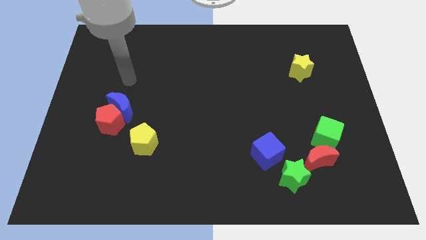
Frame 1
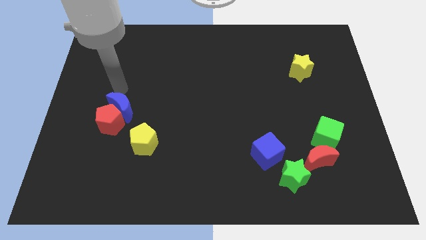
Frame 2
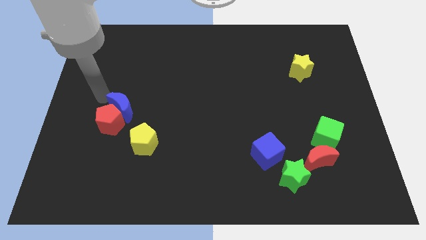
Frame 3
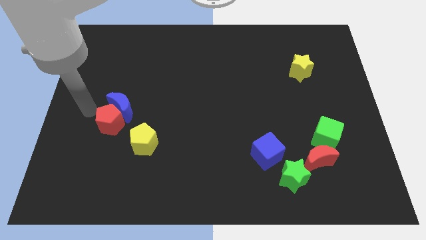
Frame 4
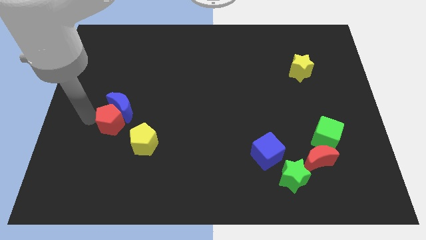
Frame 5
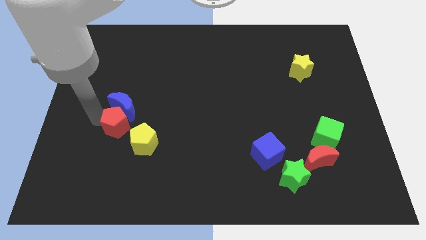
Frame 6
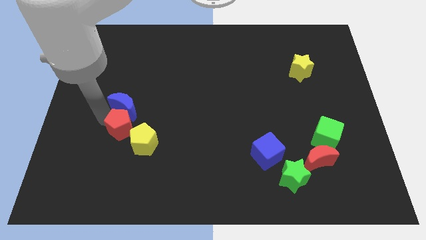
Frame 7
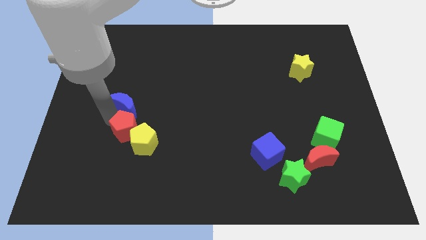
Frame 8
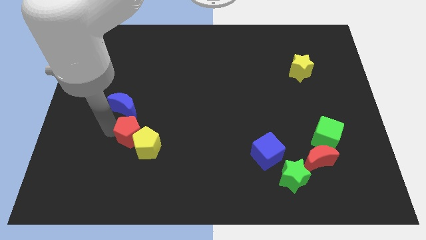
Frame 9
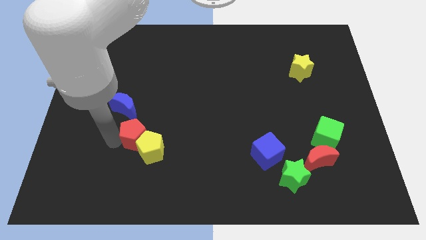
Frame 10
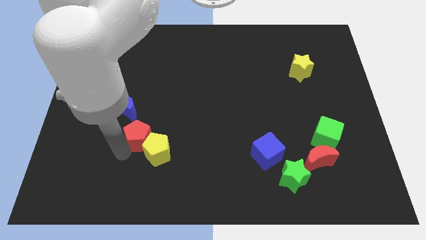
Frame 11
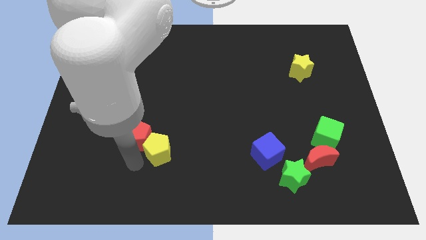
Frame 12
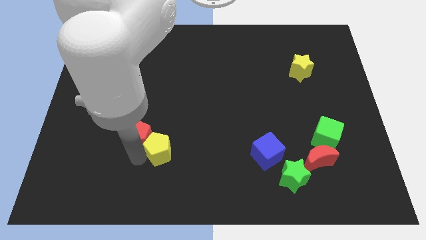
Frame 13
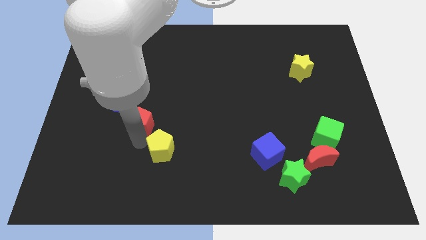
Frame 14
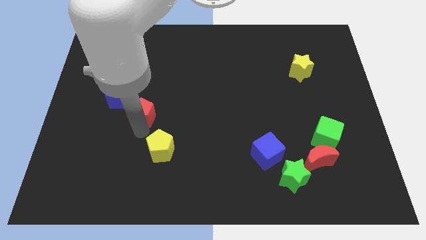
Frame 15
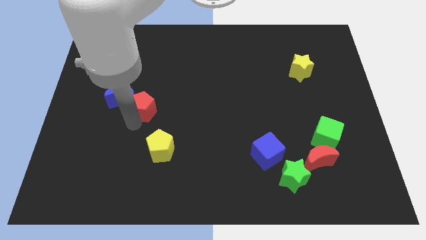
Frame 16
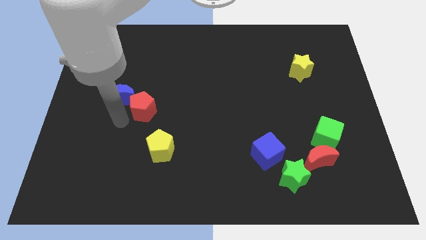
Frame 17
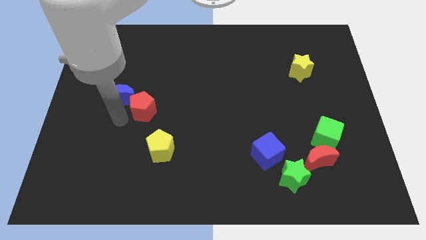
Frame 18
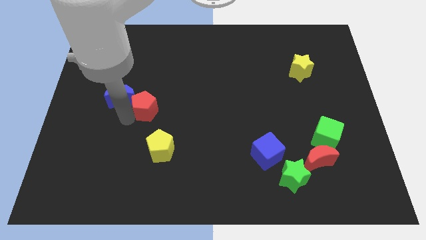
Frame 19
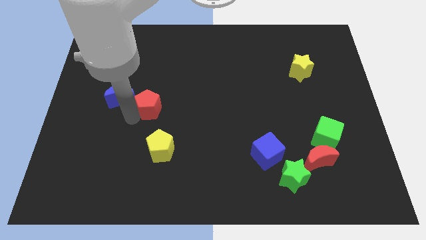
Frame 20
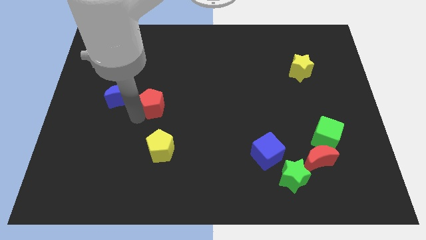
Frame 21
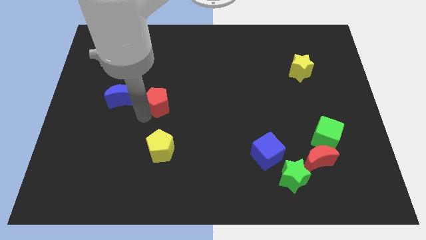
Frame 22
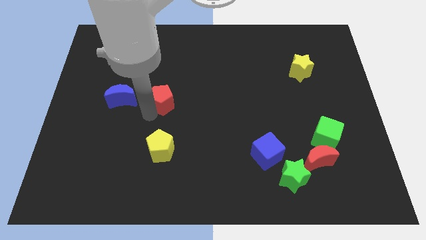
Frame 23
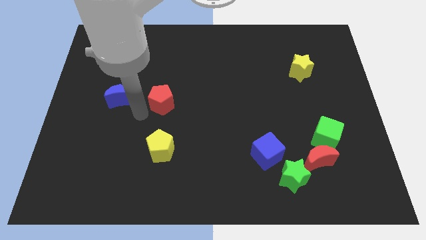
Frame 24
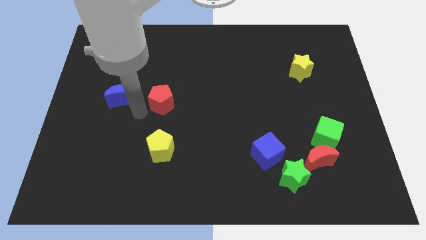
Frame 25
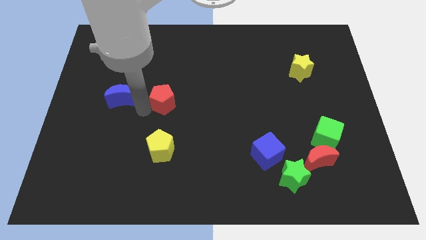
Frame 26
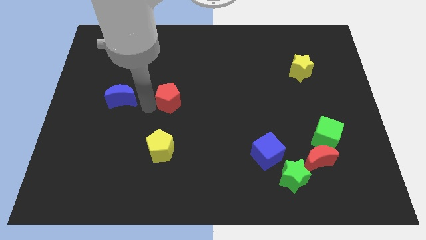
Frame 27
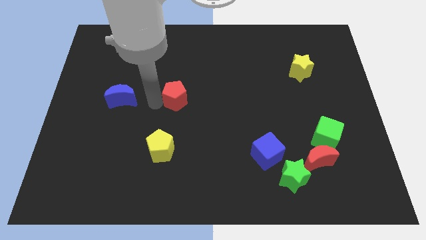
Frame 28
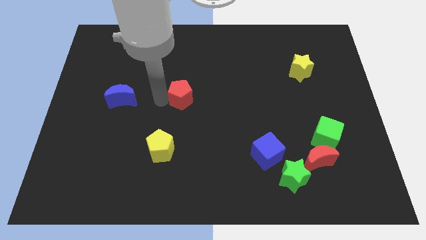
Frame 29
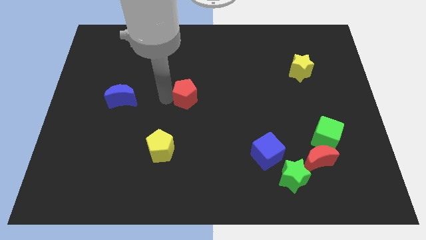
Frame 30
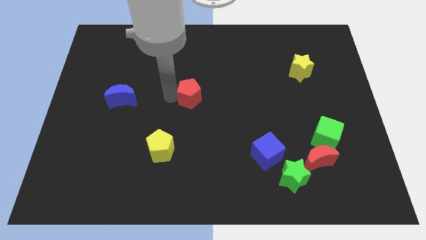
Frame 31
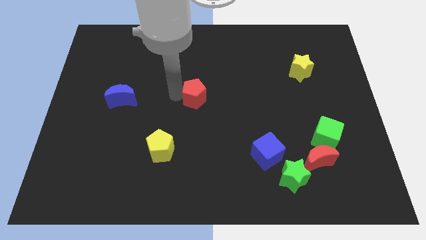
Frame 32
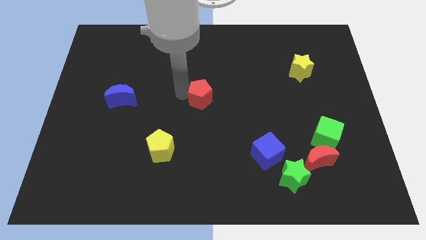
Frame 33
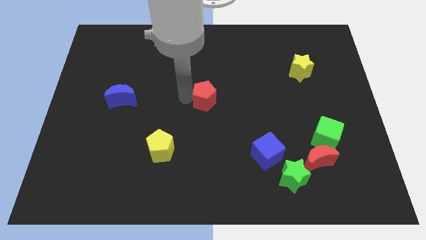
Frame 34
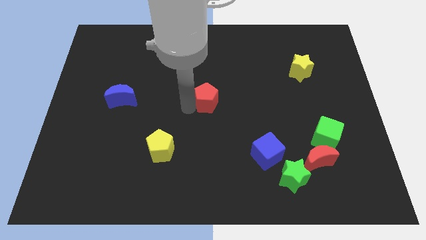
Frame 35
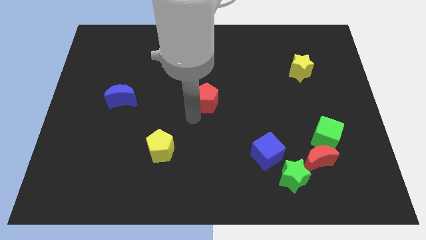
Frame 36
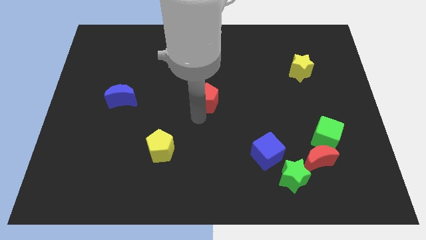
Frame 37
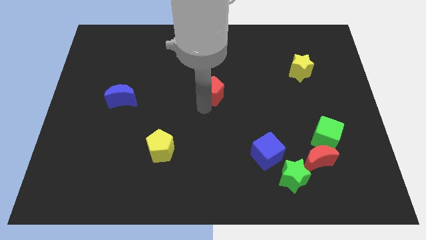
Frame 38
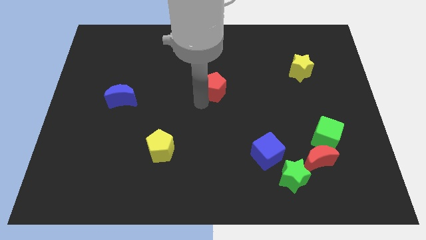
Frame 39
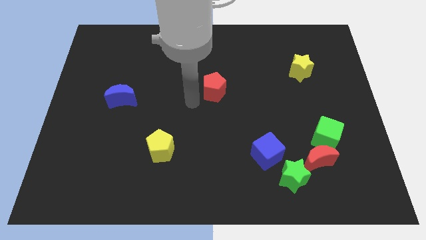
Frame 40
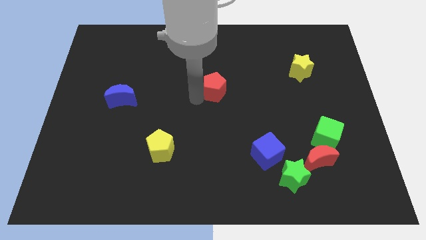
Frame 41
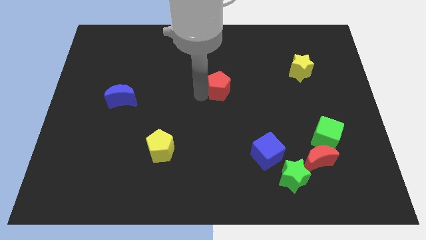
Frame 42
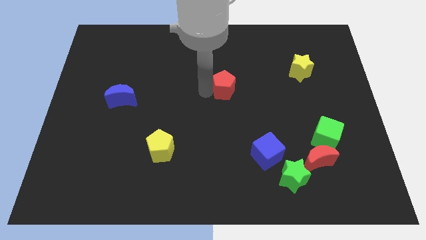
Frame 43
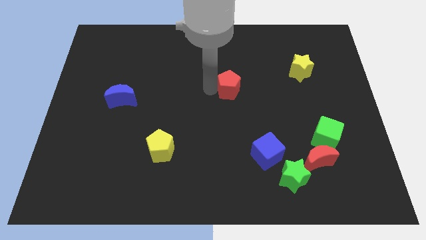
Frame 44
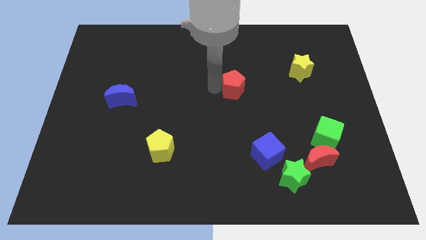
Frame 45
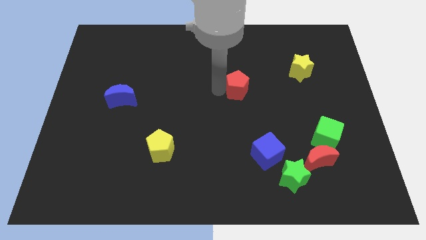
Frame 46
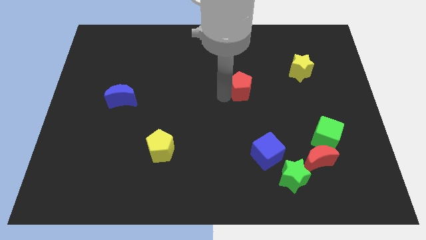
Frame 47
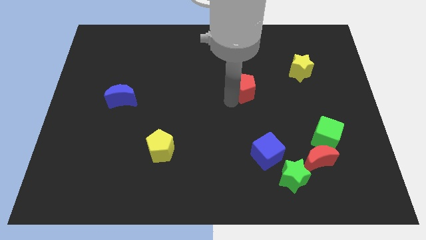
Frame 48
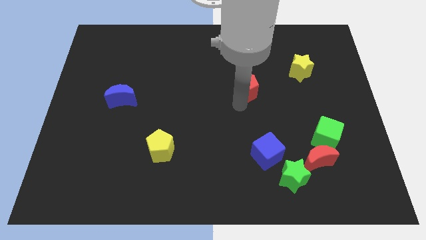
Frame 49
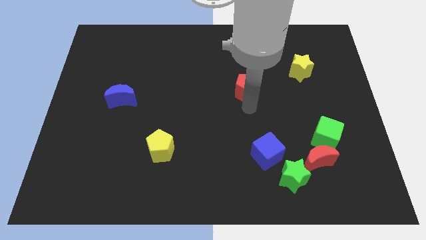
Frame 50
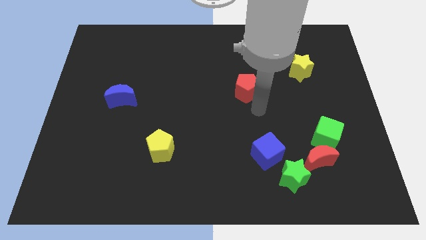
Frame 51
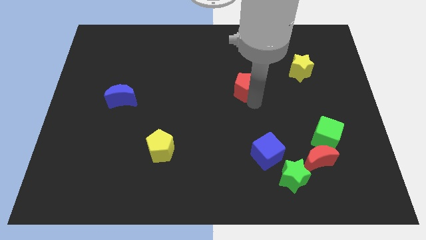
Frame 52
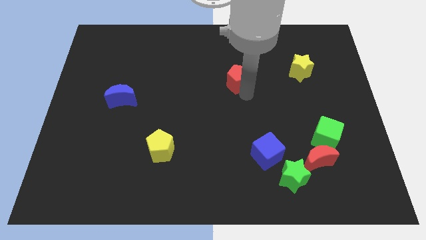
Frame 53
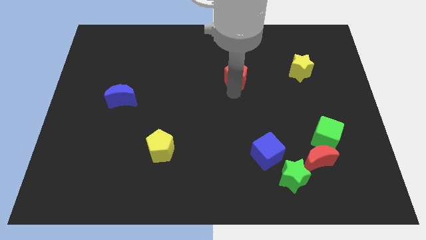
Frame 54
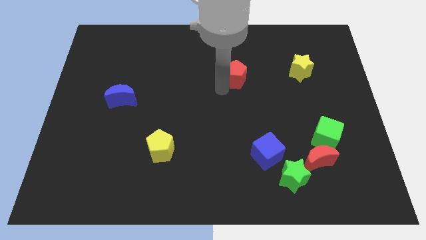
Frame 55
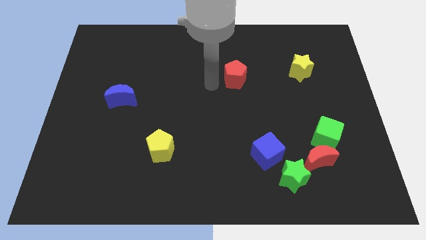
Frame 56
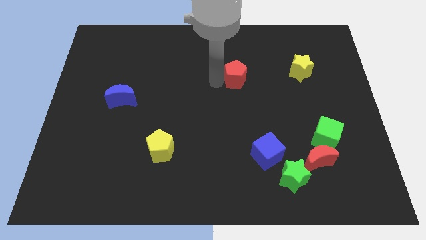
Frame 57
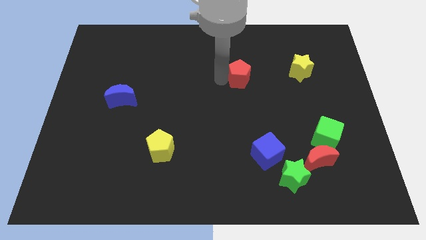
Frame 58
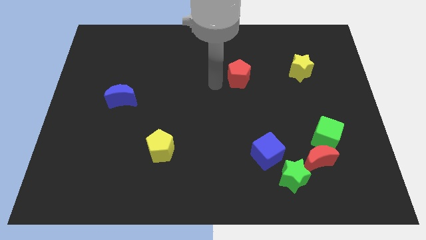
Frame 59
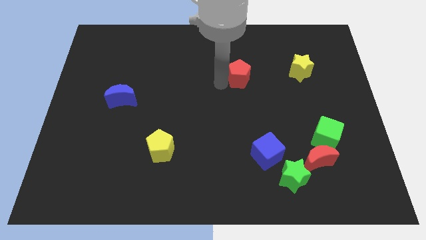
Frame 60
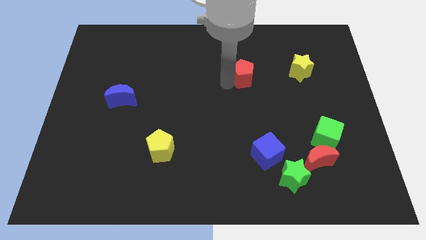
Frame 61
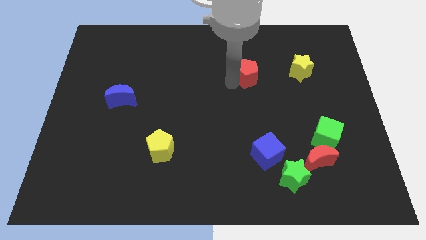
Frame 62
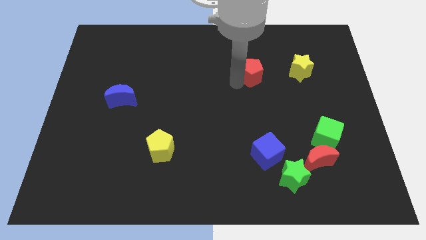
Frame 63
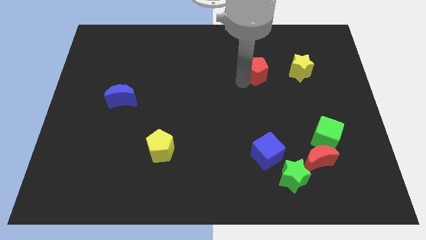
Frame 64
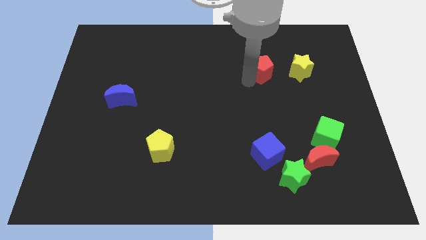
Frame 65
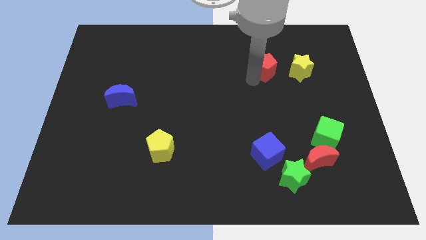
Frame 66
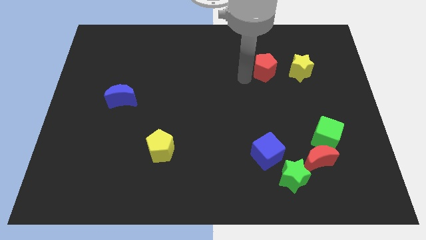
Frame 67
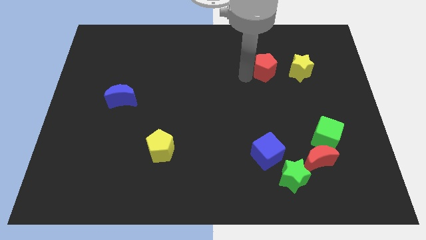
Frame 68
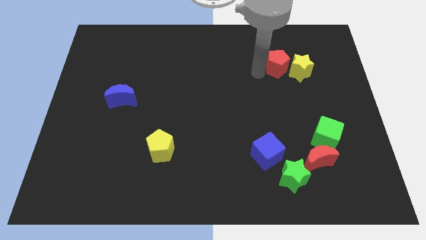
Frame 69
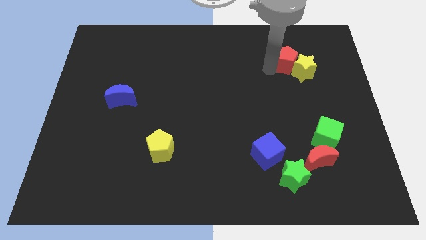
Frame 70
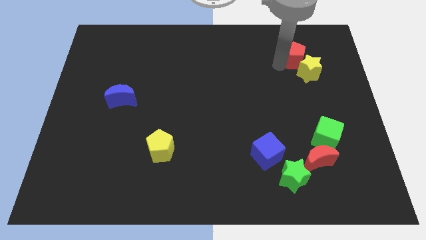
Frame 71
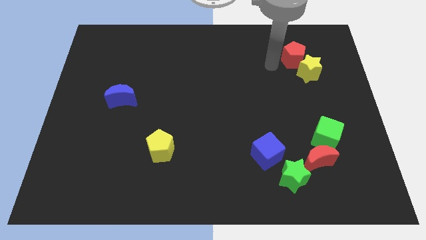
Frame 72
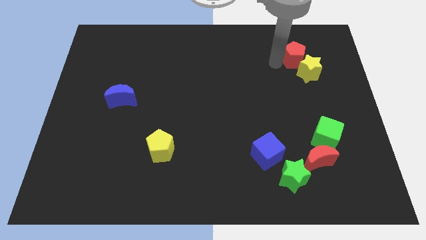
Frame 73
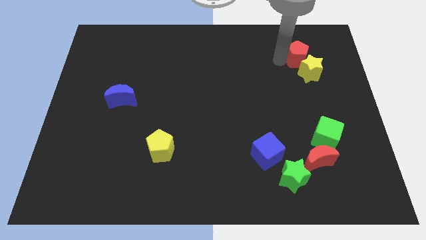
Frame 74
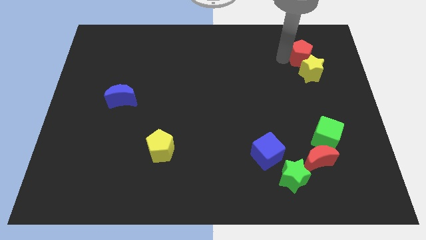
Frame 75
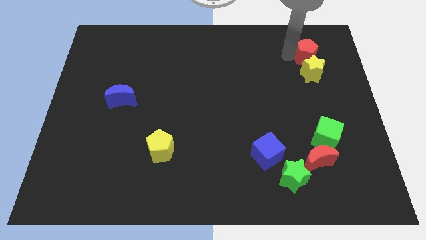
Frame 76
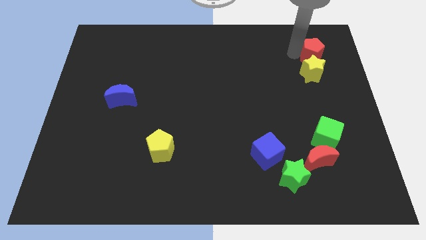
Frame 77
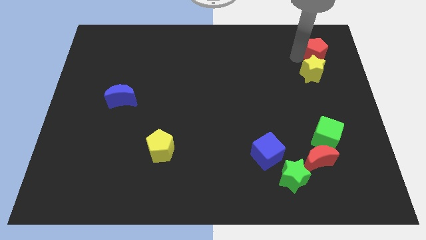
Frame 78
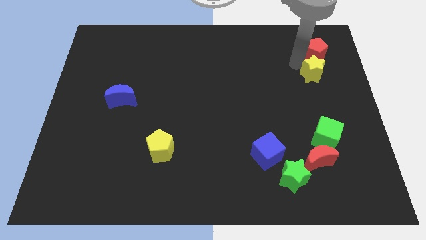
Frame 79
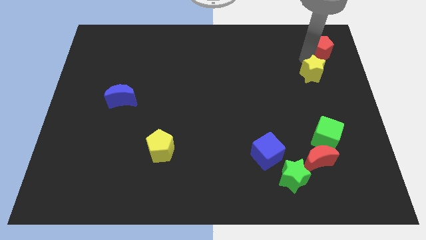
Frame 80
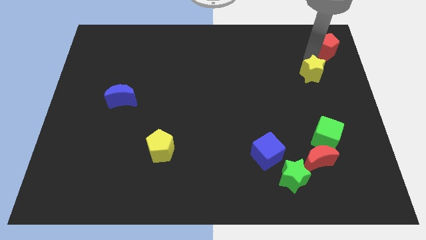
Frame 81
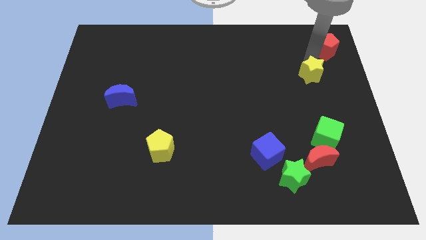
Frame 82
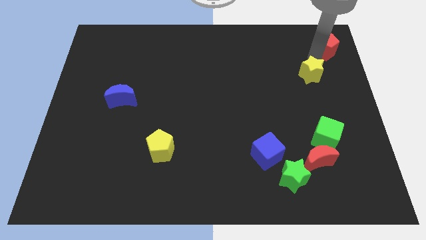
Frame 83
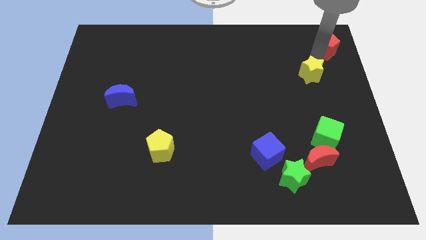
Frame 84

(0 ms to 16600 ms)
move the red pentagon to the top right
